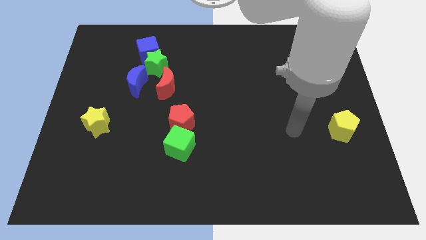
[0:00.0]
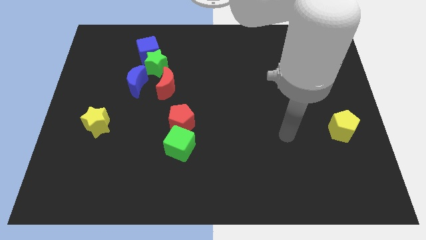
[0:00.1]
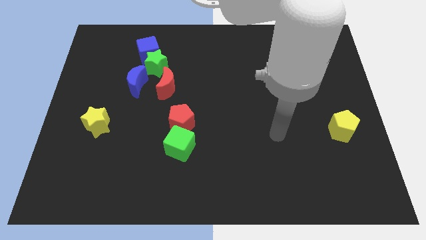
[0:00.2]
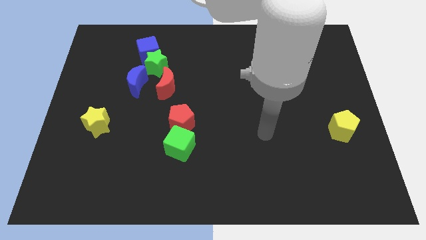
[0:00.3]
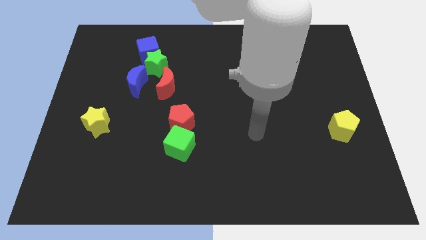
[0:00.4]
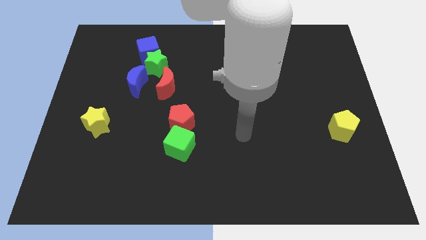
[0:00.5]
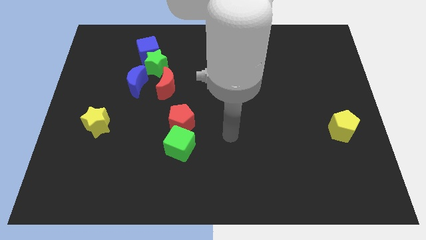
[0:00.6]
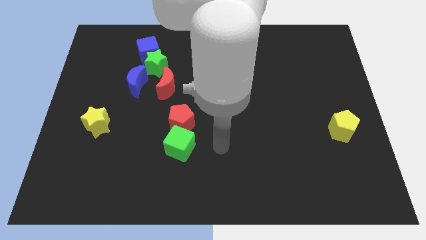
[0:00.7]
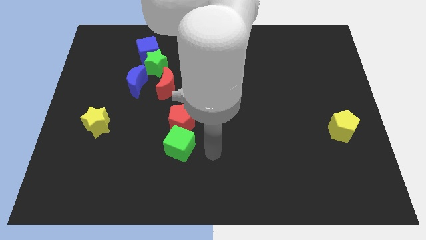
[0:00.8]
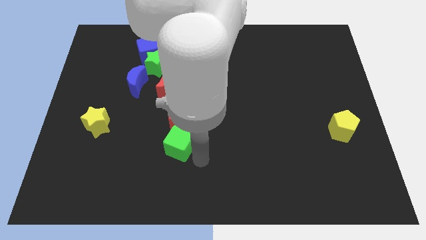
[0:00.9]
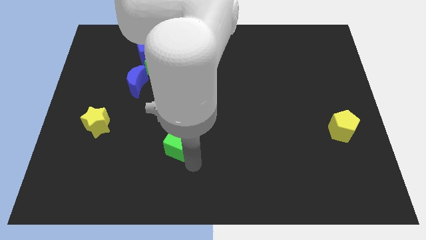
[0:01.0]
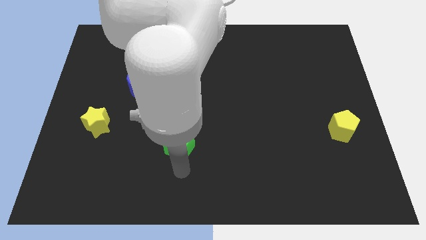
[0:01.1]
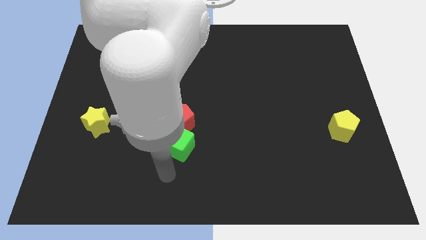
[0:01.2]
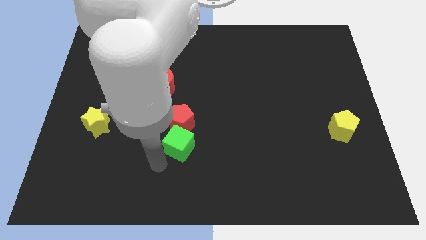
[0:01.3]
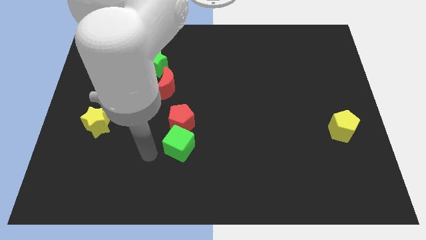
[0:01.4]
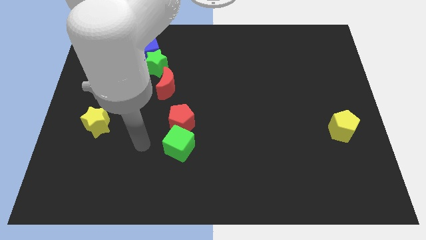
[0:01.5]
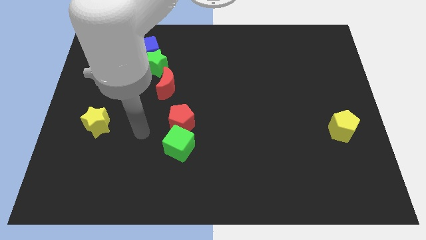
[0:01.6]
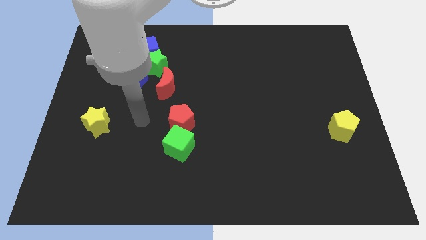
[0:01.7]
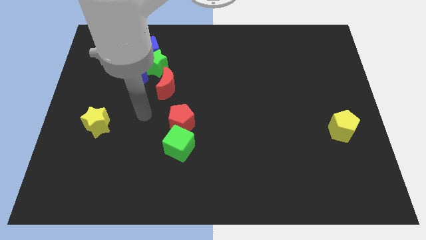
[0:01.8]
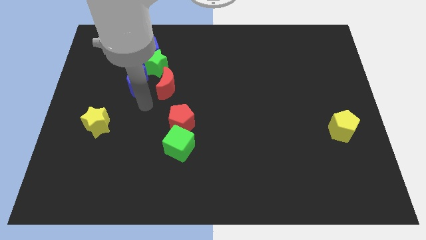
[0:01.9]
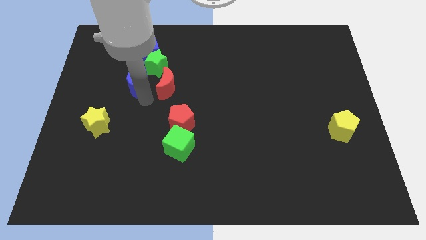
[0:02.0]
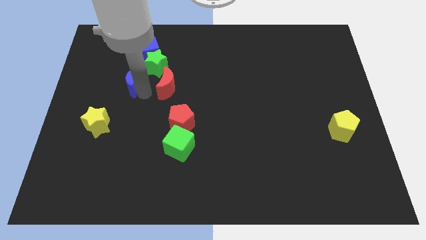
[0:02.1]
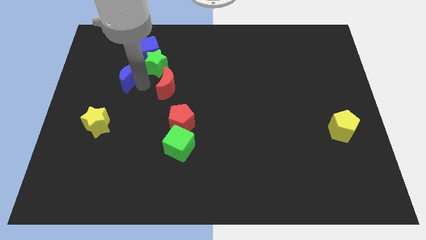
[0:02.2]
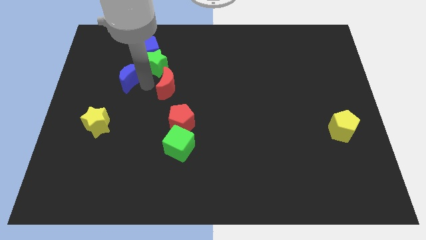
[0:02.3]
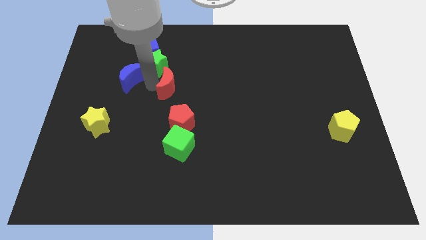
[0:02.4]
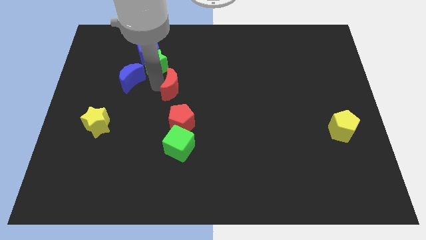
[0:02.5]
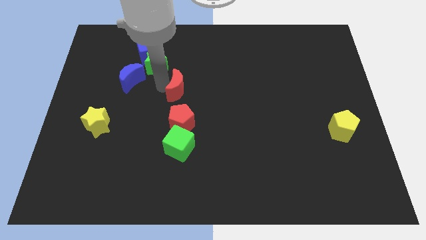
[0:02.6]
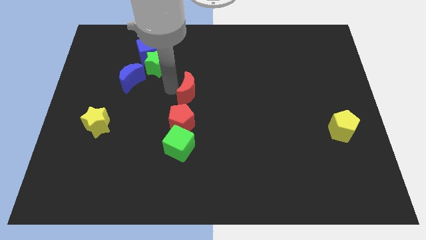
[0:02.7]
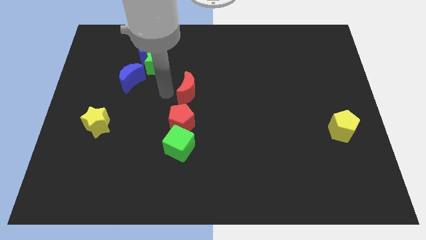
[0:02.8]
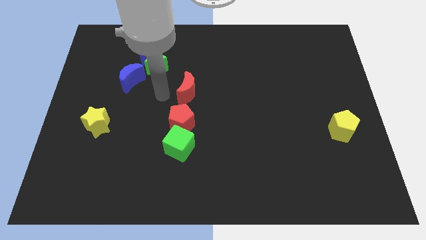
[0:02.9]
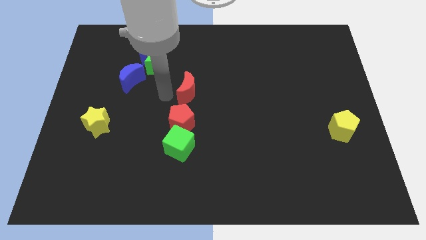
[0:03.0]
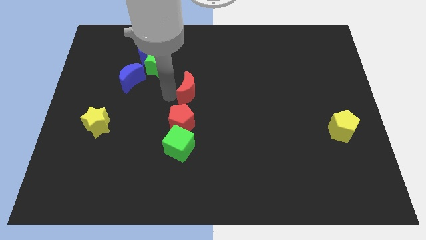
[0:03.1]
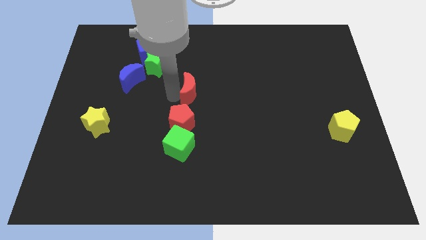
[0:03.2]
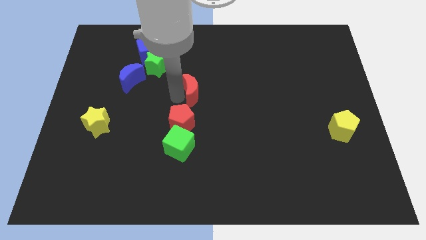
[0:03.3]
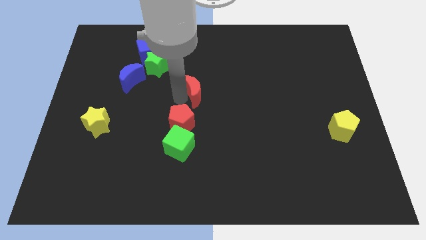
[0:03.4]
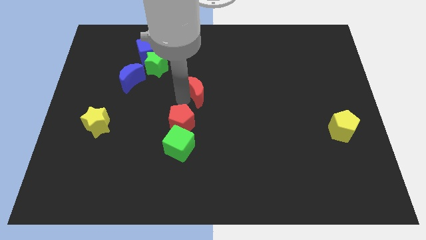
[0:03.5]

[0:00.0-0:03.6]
slightly move the red moon right

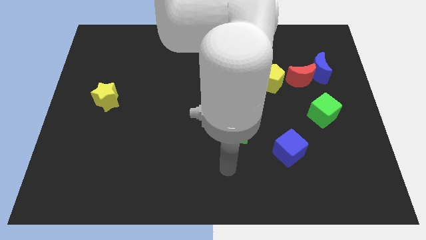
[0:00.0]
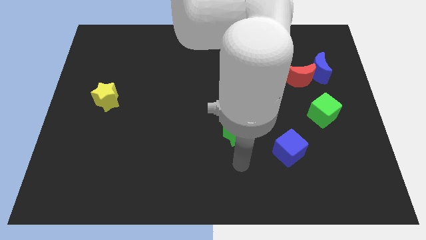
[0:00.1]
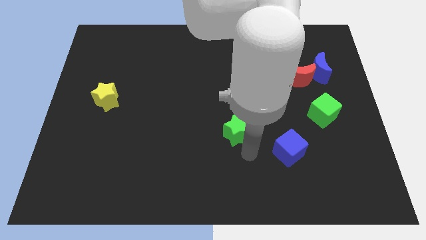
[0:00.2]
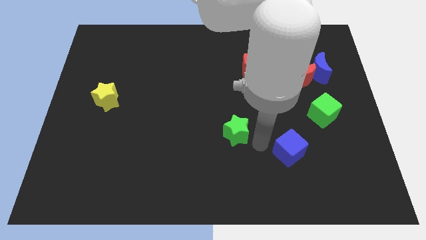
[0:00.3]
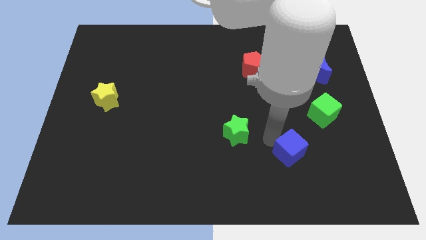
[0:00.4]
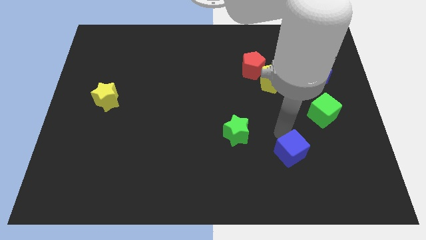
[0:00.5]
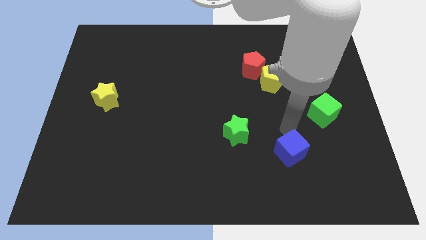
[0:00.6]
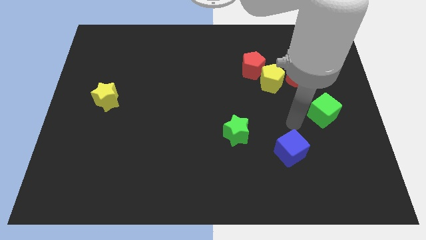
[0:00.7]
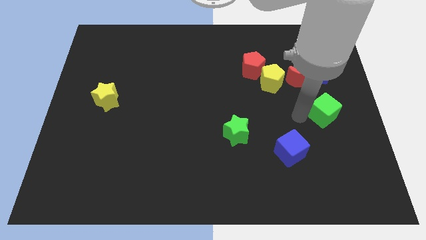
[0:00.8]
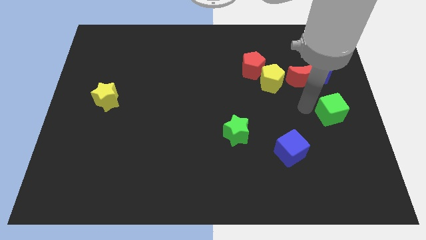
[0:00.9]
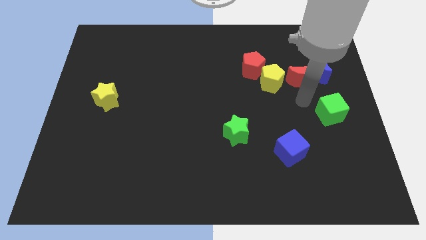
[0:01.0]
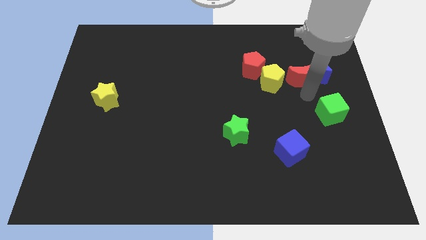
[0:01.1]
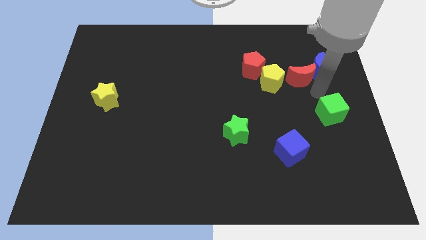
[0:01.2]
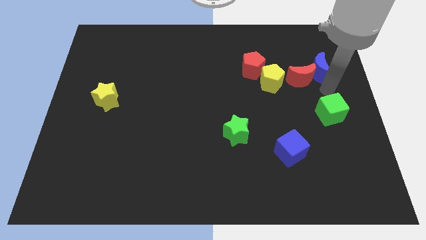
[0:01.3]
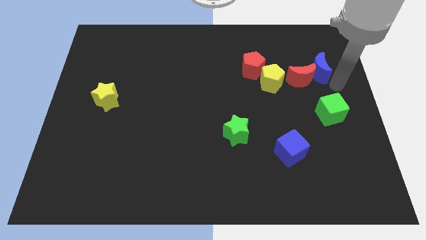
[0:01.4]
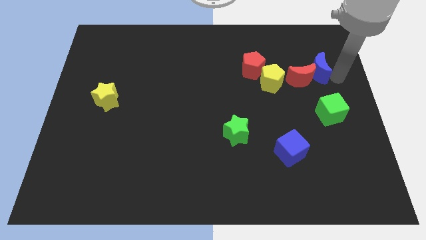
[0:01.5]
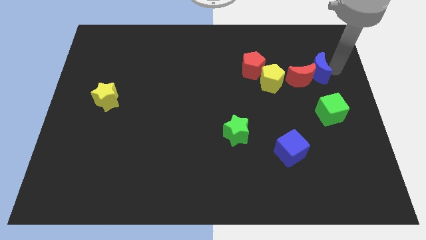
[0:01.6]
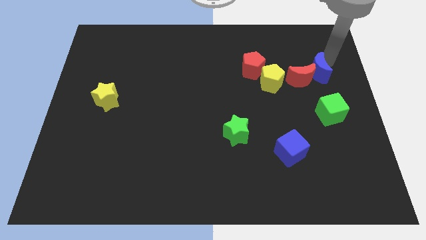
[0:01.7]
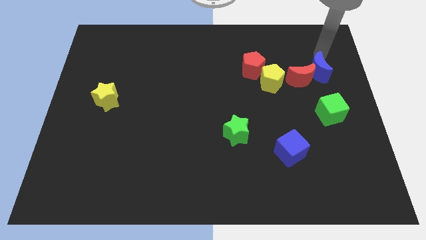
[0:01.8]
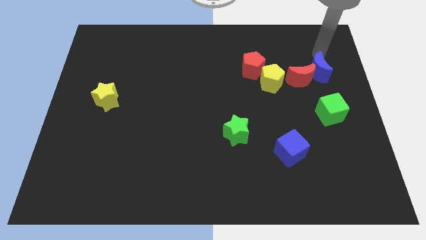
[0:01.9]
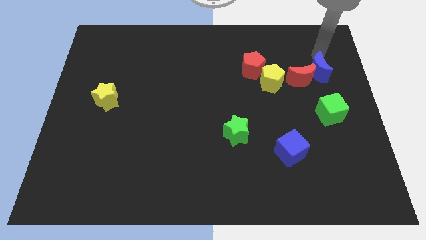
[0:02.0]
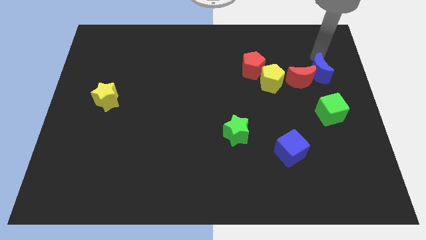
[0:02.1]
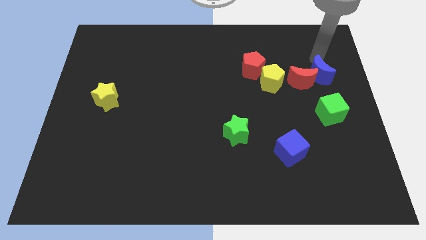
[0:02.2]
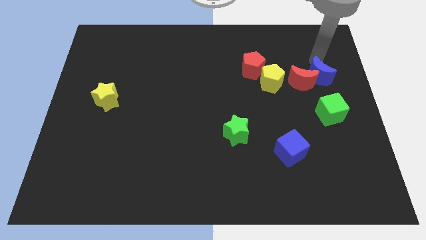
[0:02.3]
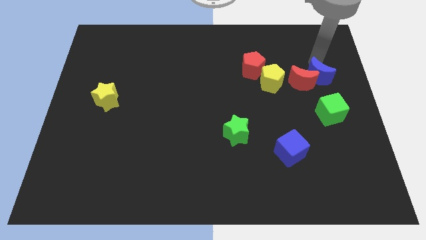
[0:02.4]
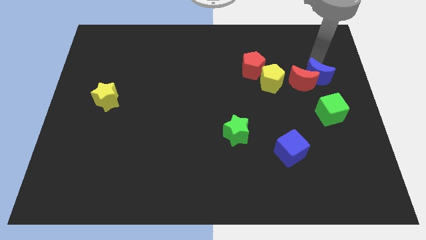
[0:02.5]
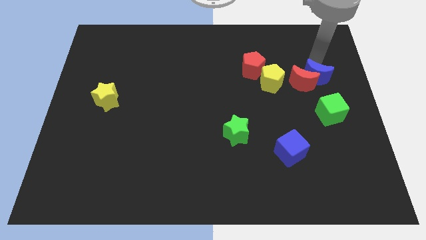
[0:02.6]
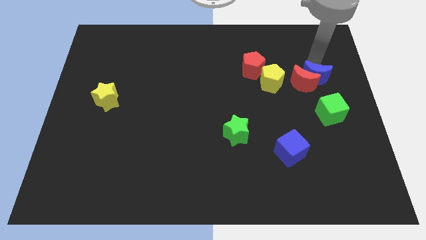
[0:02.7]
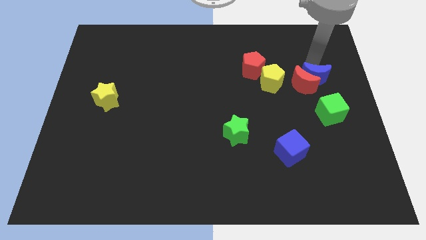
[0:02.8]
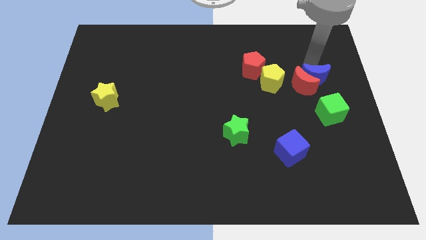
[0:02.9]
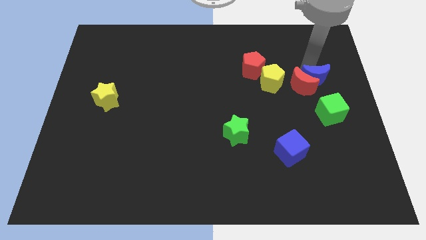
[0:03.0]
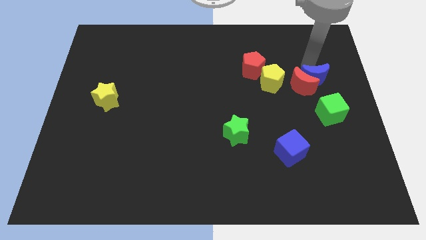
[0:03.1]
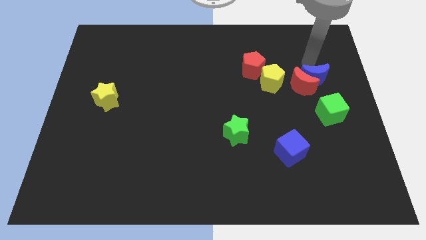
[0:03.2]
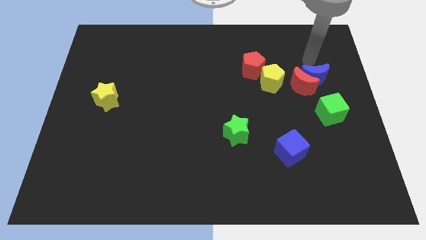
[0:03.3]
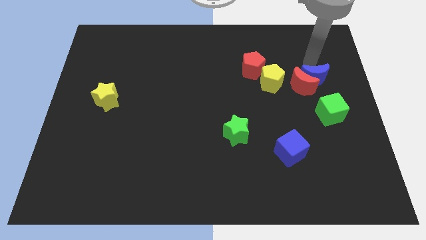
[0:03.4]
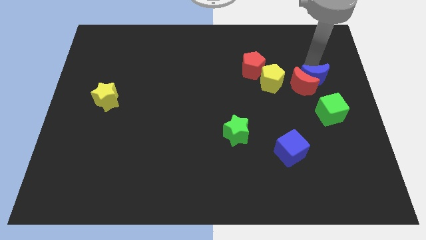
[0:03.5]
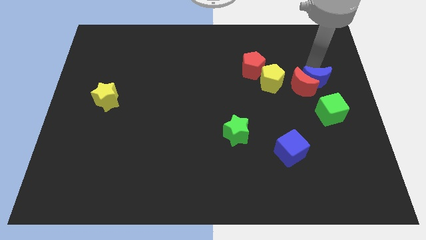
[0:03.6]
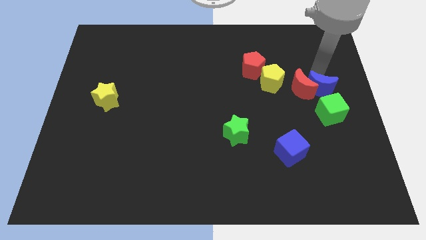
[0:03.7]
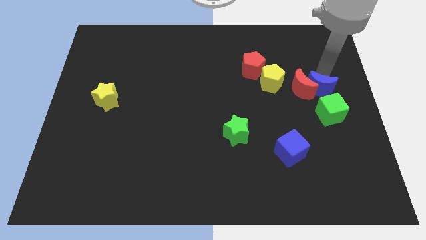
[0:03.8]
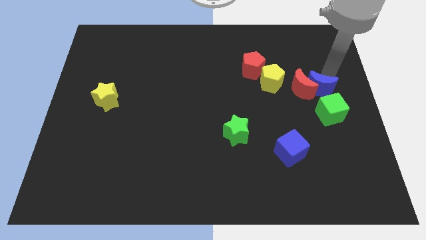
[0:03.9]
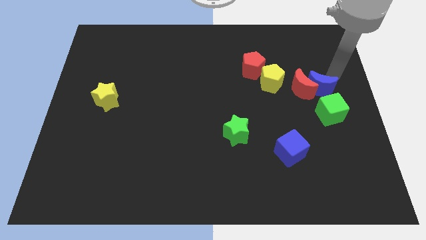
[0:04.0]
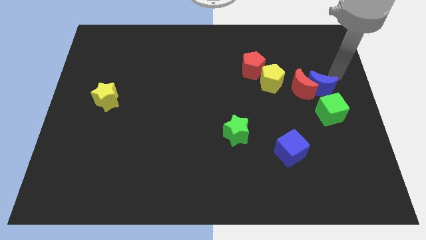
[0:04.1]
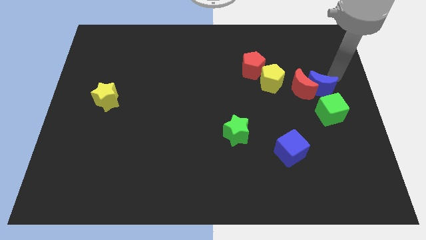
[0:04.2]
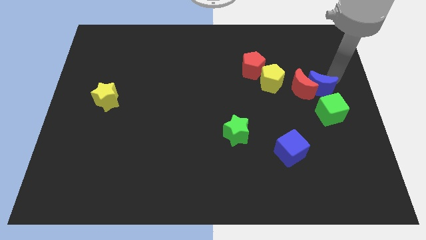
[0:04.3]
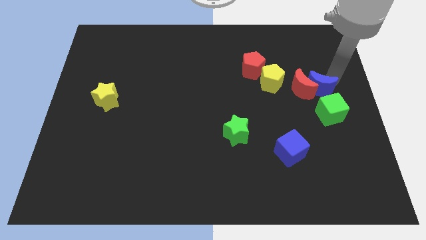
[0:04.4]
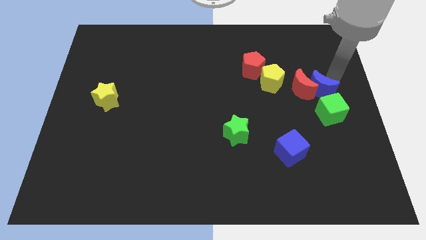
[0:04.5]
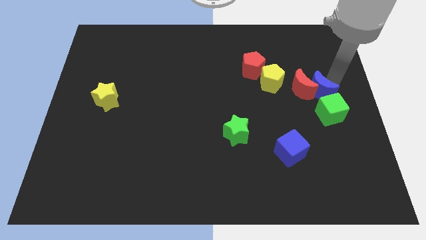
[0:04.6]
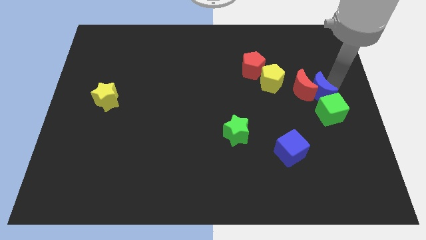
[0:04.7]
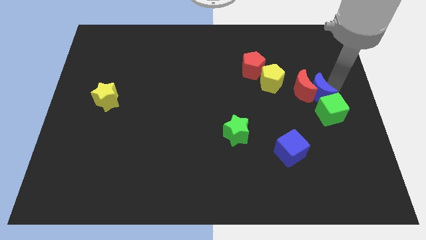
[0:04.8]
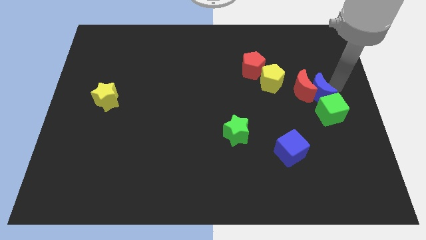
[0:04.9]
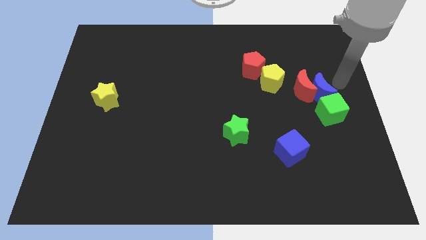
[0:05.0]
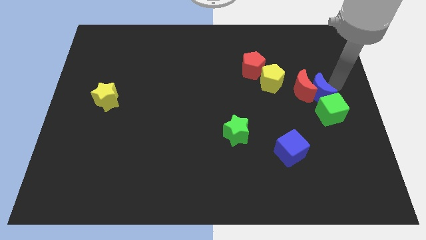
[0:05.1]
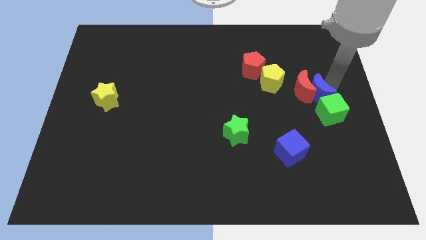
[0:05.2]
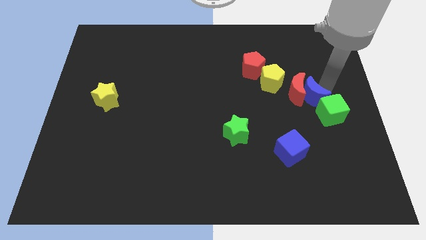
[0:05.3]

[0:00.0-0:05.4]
push the blue moon downwards and to the left diagonally a little
